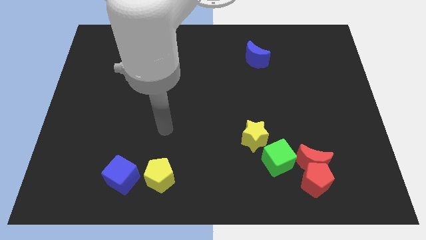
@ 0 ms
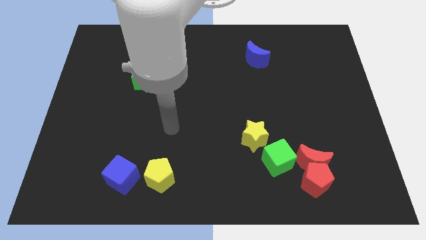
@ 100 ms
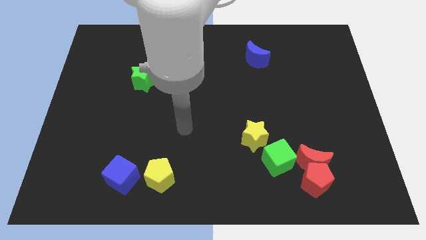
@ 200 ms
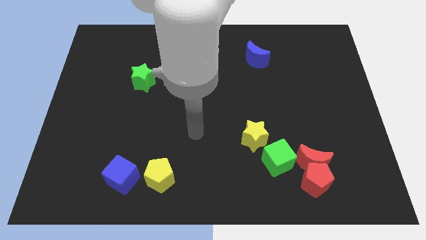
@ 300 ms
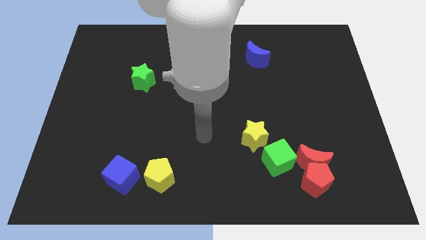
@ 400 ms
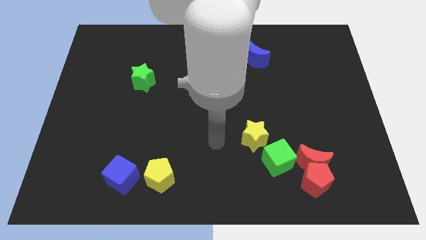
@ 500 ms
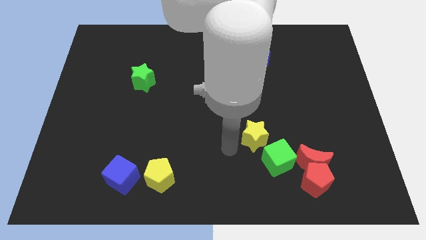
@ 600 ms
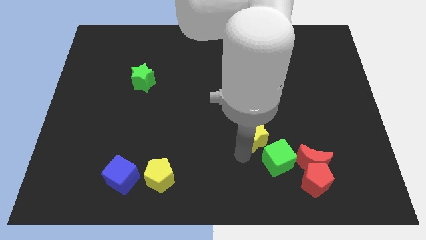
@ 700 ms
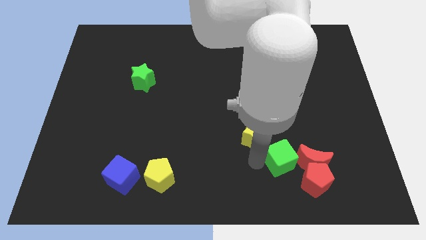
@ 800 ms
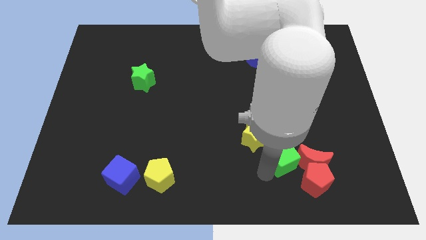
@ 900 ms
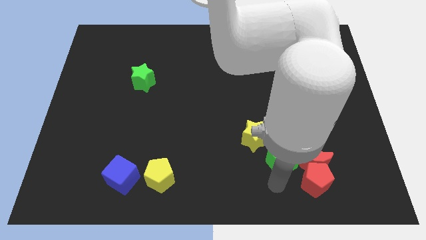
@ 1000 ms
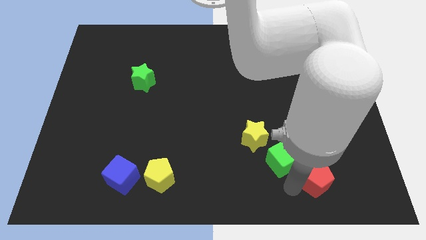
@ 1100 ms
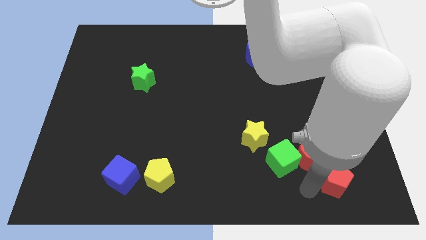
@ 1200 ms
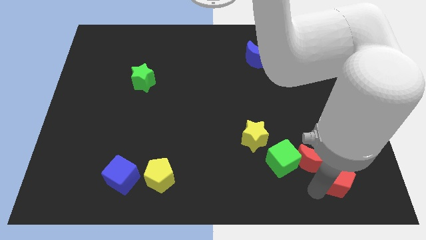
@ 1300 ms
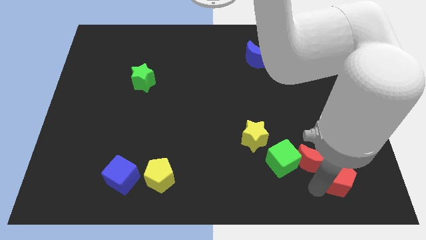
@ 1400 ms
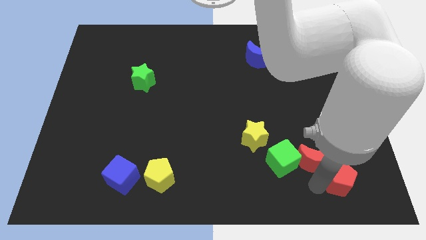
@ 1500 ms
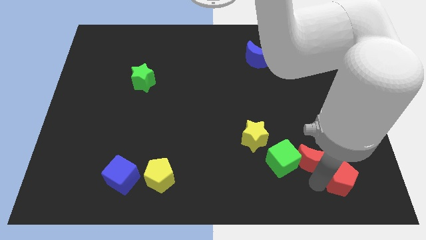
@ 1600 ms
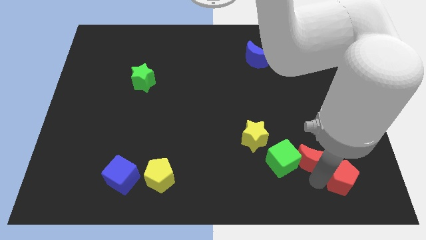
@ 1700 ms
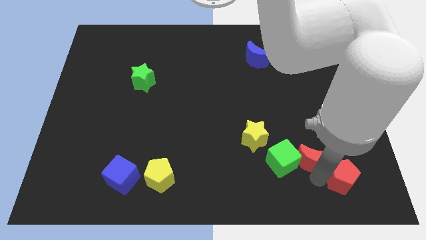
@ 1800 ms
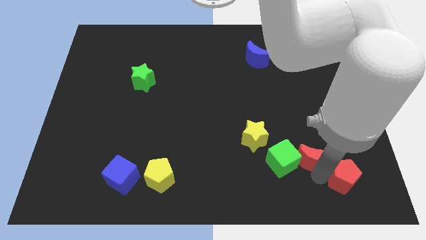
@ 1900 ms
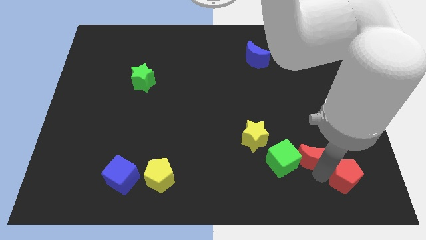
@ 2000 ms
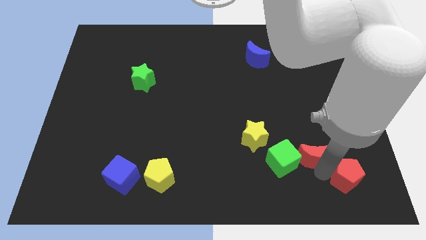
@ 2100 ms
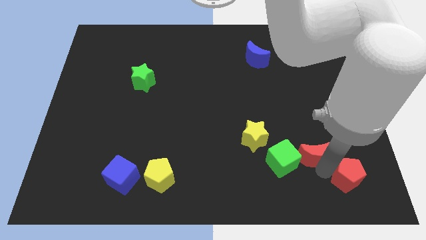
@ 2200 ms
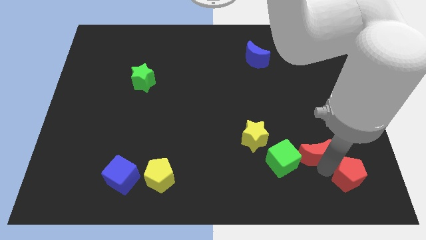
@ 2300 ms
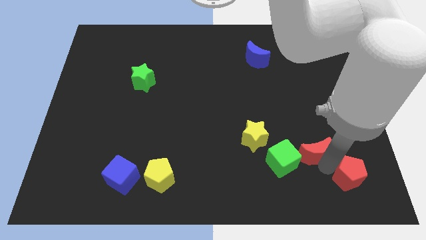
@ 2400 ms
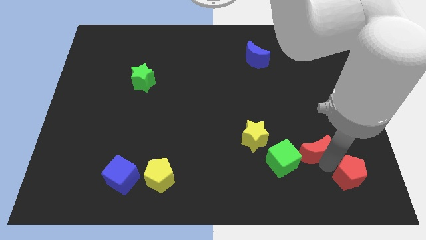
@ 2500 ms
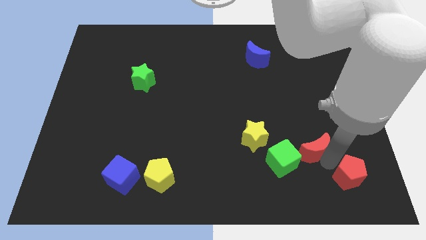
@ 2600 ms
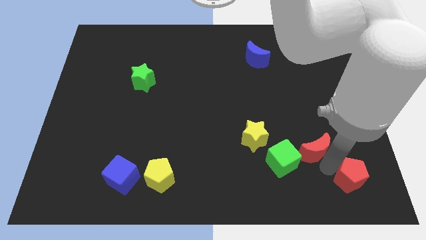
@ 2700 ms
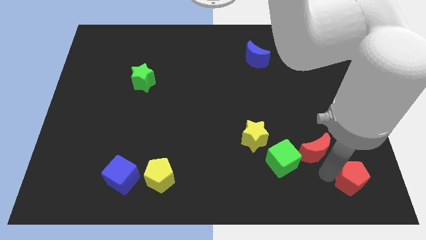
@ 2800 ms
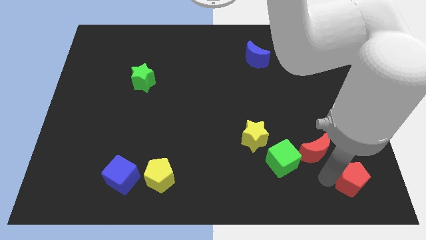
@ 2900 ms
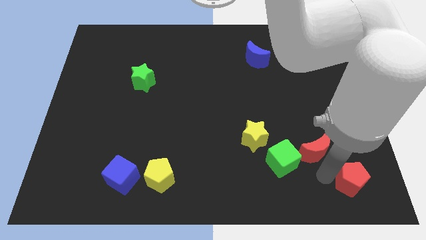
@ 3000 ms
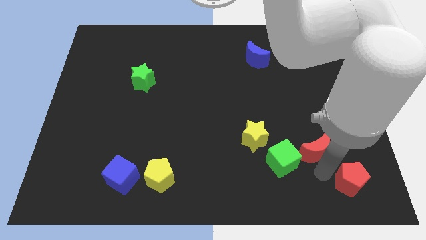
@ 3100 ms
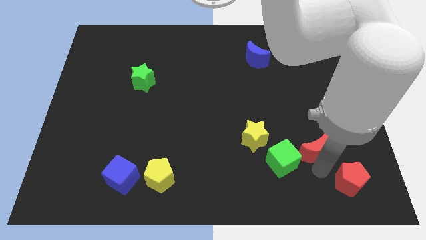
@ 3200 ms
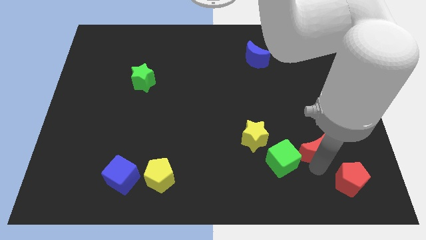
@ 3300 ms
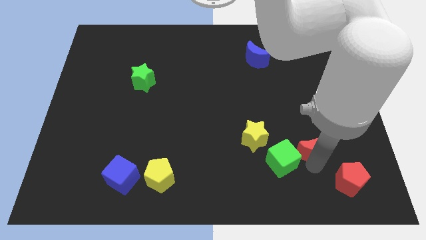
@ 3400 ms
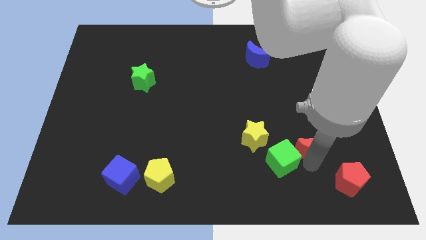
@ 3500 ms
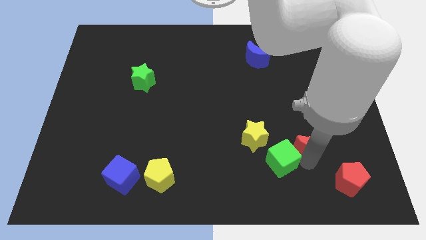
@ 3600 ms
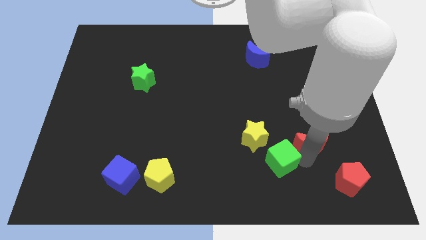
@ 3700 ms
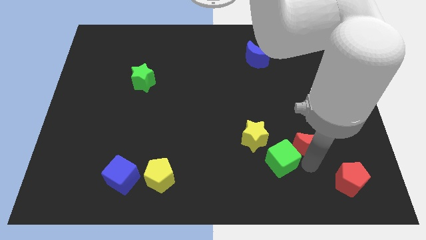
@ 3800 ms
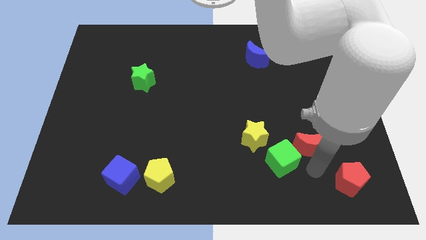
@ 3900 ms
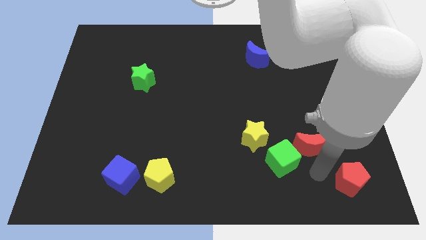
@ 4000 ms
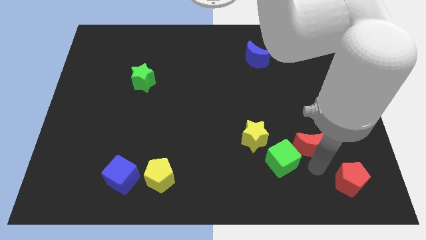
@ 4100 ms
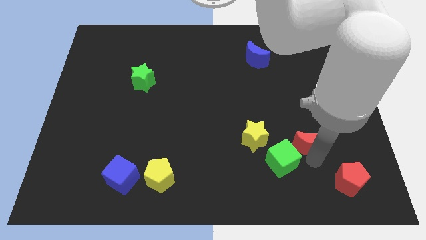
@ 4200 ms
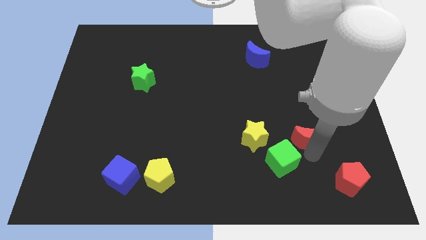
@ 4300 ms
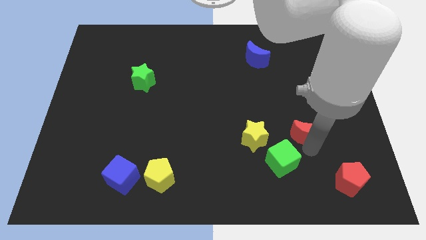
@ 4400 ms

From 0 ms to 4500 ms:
slightly slide the red moon upwards

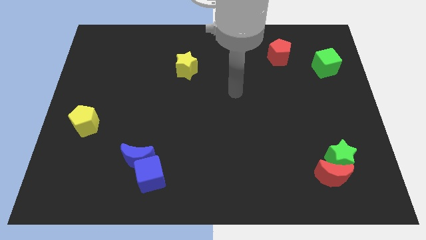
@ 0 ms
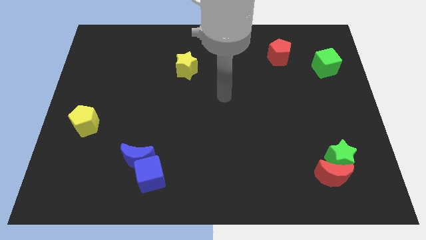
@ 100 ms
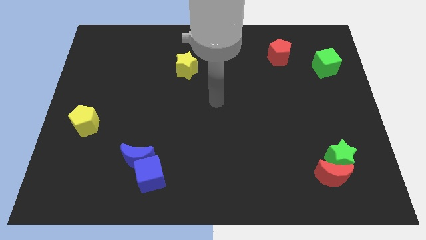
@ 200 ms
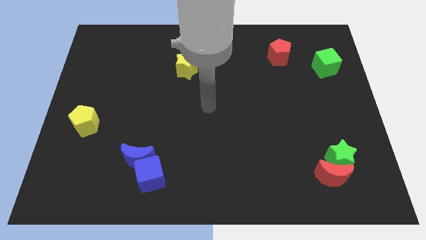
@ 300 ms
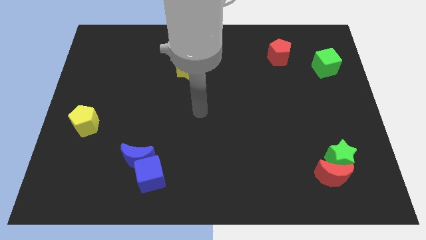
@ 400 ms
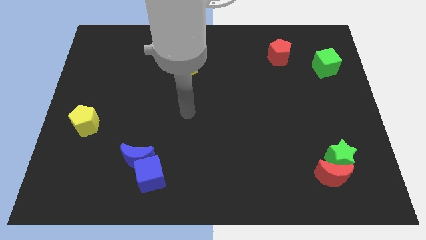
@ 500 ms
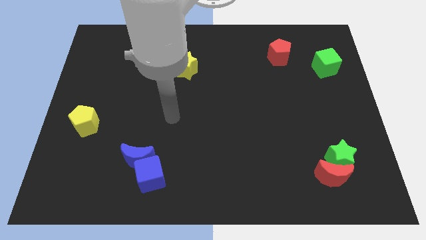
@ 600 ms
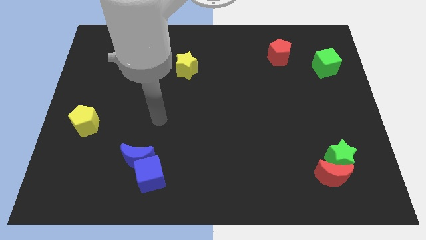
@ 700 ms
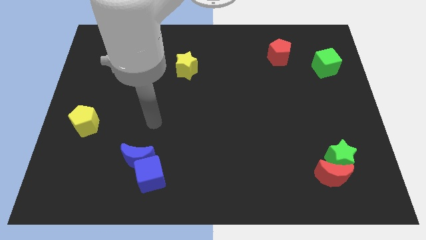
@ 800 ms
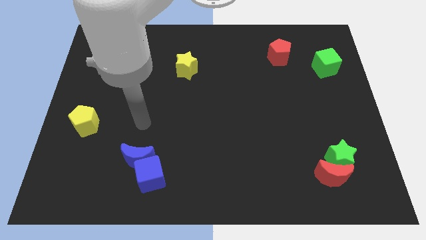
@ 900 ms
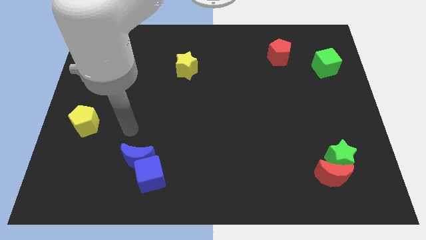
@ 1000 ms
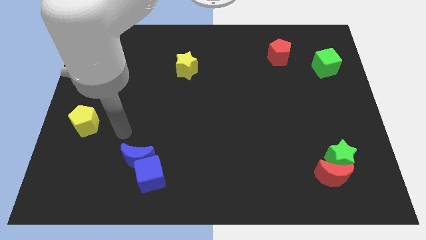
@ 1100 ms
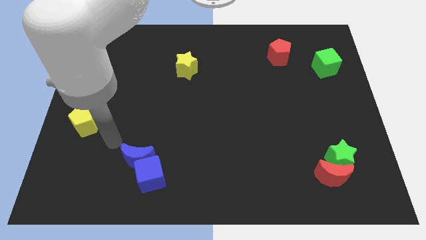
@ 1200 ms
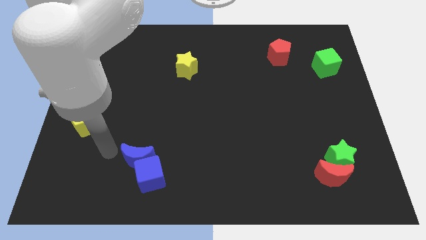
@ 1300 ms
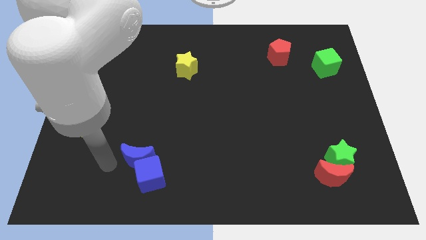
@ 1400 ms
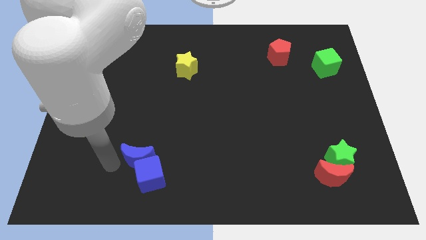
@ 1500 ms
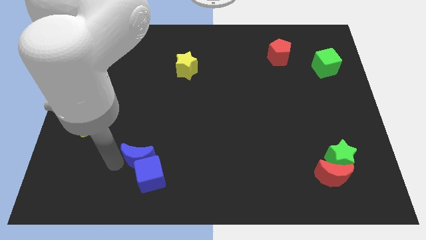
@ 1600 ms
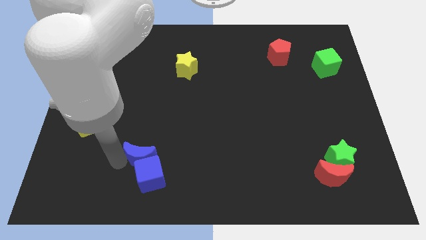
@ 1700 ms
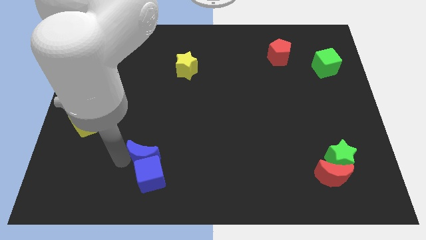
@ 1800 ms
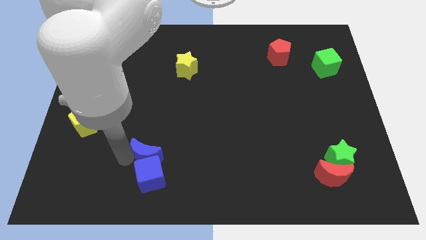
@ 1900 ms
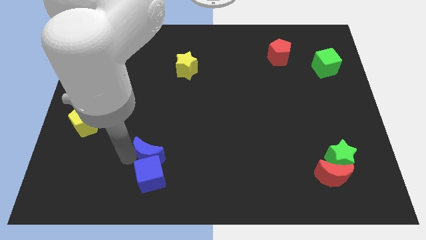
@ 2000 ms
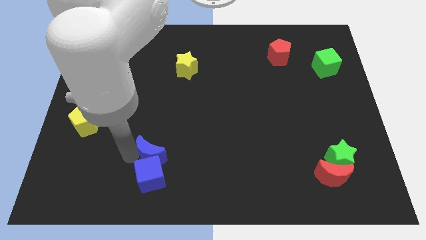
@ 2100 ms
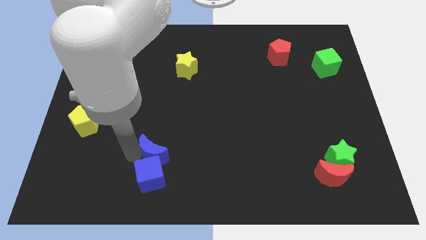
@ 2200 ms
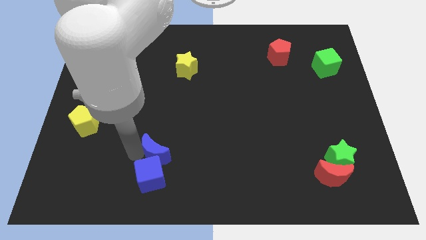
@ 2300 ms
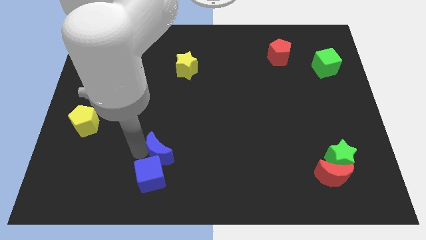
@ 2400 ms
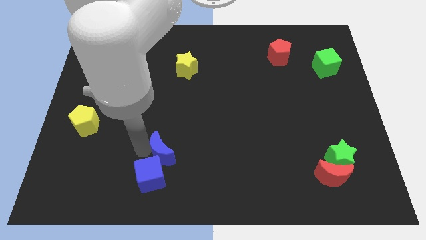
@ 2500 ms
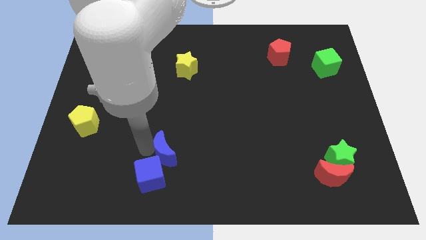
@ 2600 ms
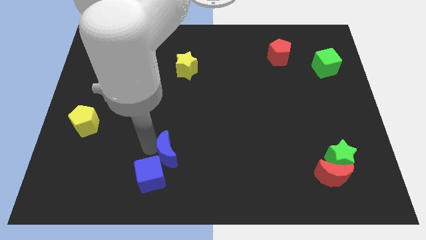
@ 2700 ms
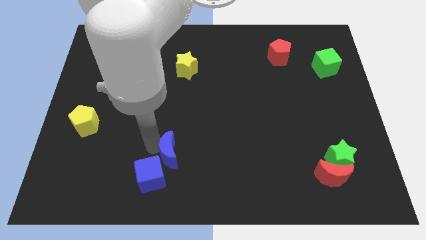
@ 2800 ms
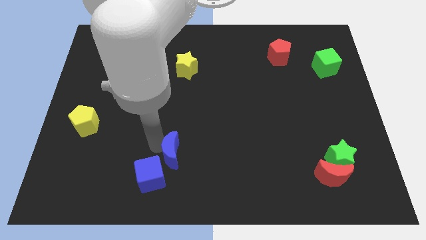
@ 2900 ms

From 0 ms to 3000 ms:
slightly move the blue moon to the right

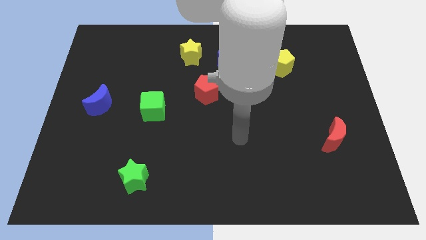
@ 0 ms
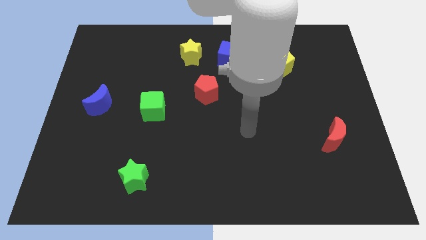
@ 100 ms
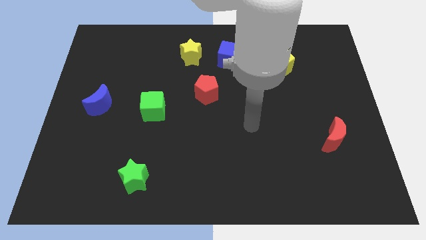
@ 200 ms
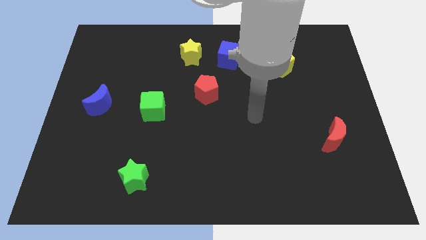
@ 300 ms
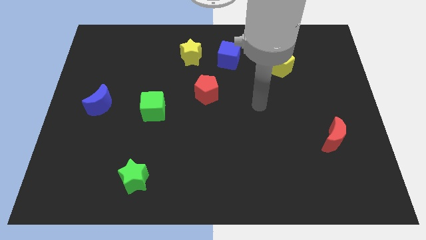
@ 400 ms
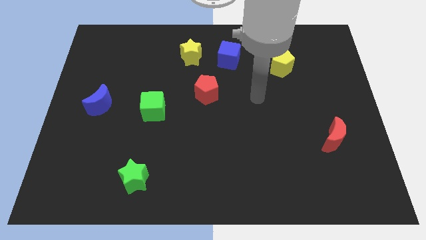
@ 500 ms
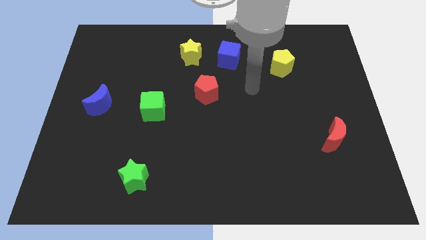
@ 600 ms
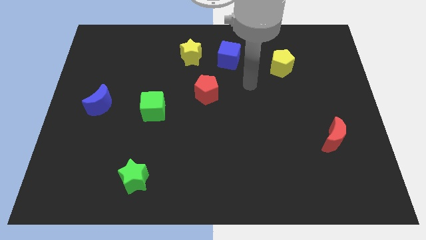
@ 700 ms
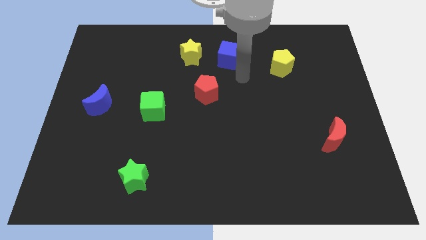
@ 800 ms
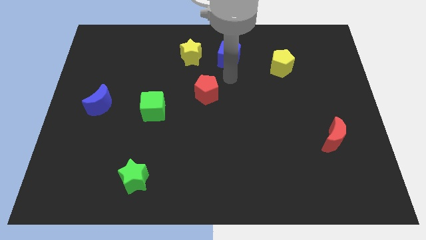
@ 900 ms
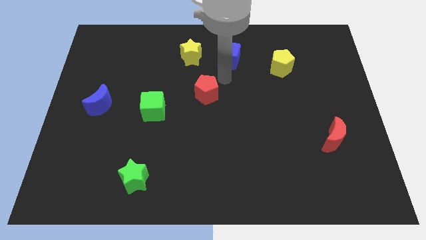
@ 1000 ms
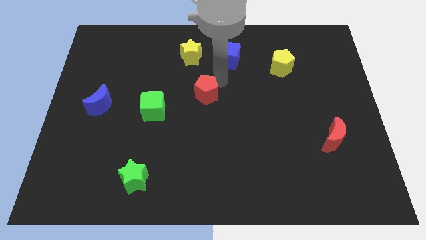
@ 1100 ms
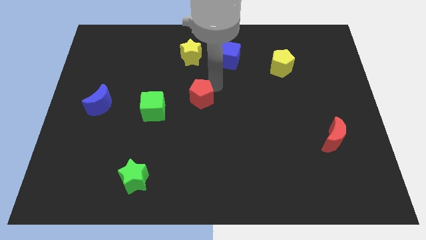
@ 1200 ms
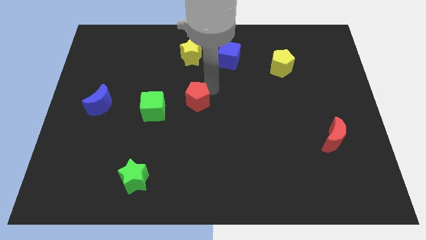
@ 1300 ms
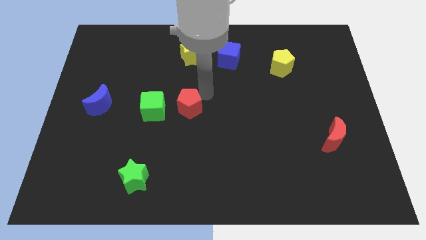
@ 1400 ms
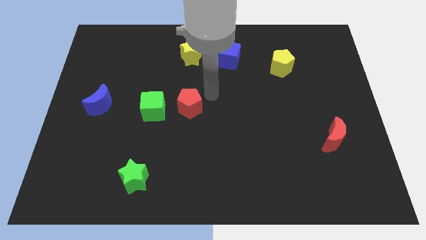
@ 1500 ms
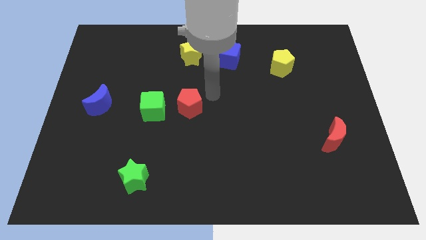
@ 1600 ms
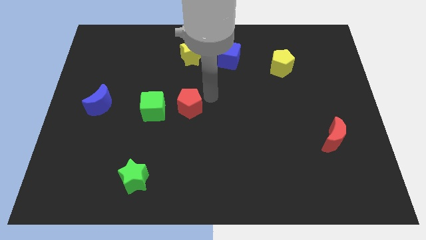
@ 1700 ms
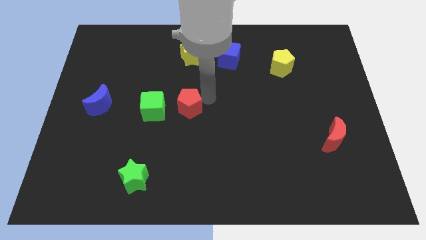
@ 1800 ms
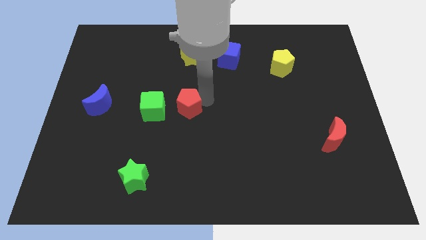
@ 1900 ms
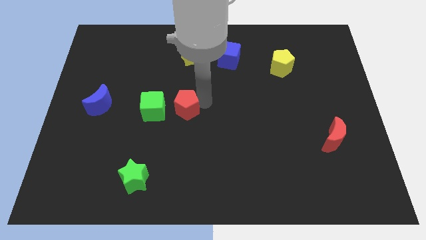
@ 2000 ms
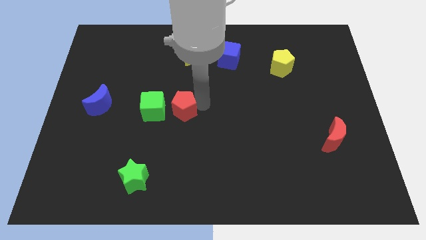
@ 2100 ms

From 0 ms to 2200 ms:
move the red pentagon downwards and left somewhat
